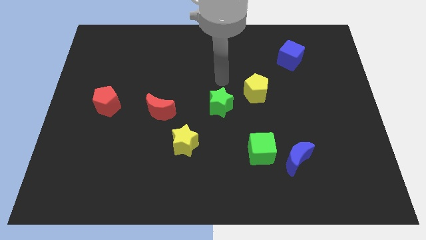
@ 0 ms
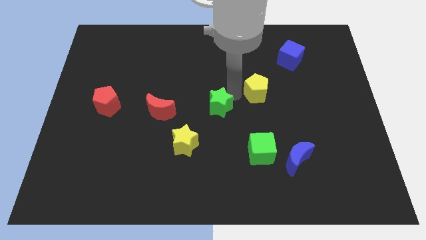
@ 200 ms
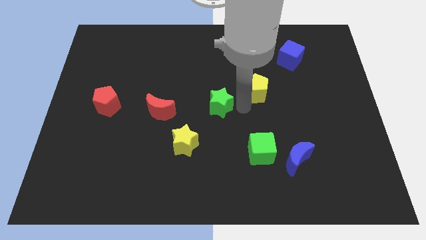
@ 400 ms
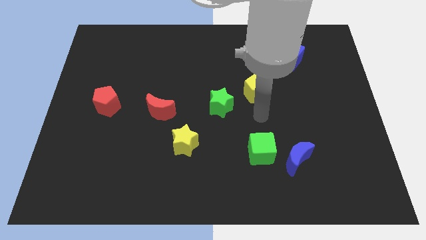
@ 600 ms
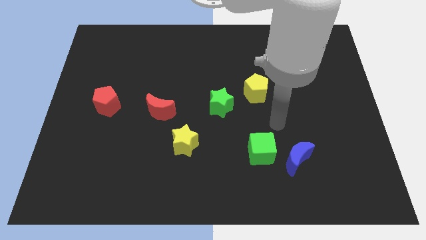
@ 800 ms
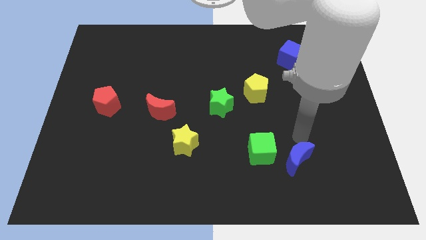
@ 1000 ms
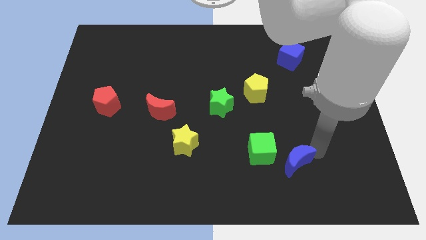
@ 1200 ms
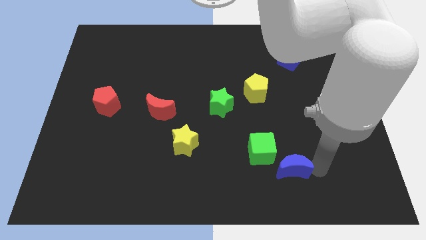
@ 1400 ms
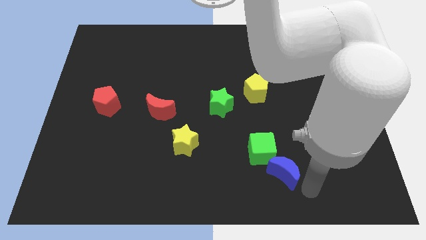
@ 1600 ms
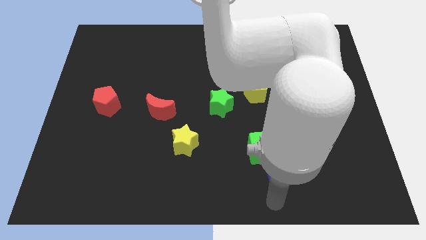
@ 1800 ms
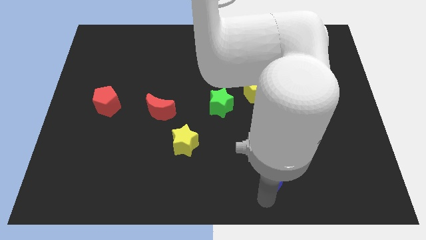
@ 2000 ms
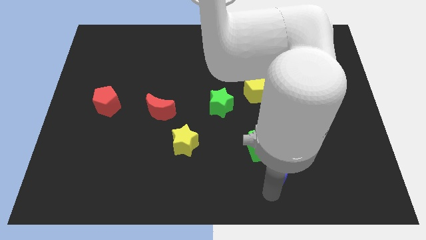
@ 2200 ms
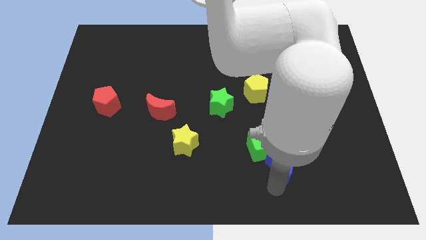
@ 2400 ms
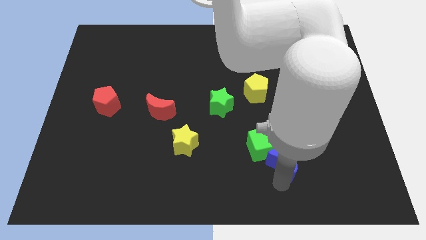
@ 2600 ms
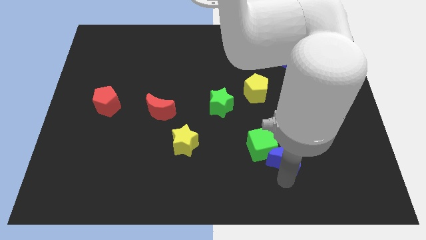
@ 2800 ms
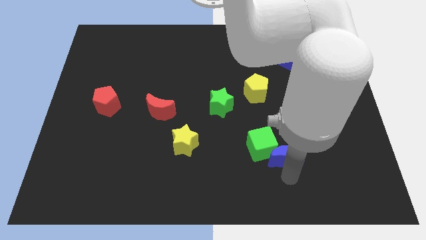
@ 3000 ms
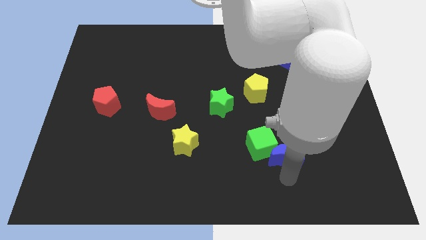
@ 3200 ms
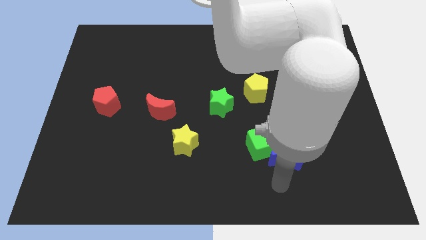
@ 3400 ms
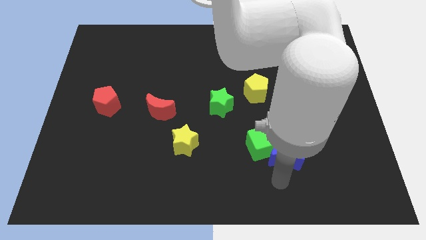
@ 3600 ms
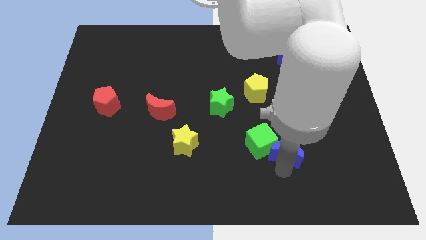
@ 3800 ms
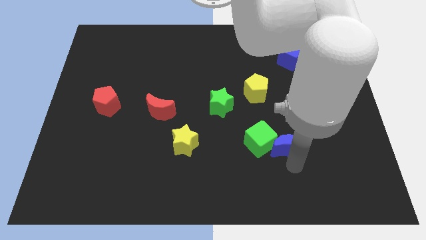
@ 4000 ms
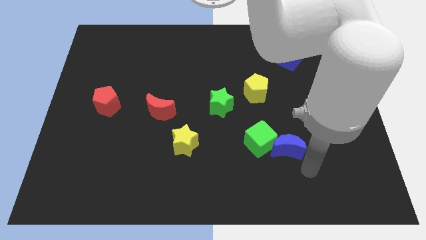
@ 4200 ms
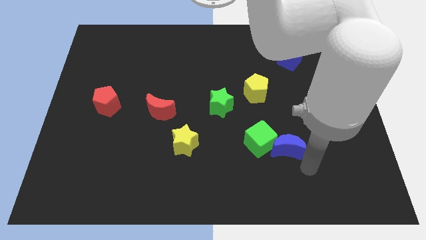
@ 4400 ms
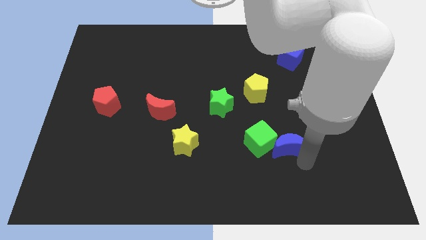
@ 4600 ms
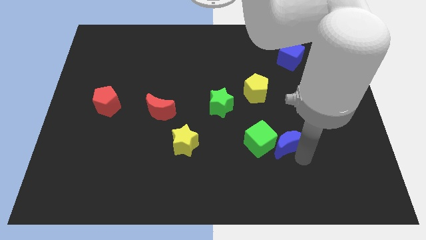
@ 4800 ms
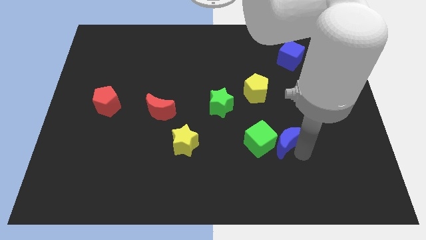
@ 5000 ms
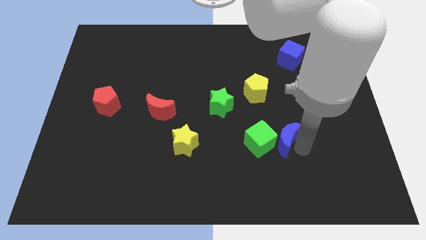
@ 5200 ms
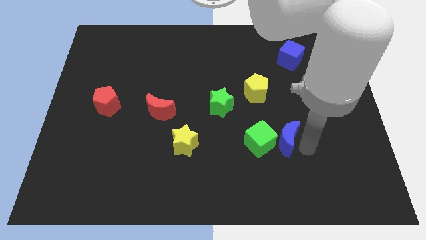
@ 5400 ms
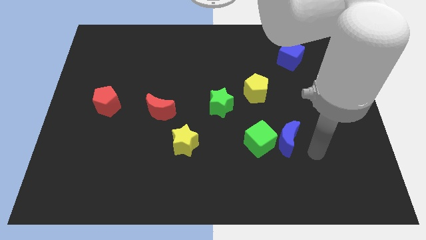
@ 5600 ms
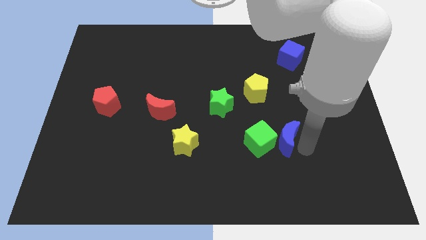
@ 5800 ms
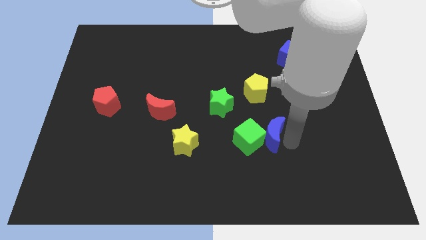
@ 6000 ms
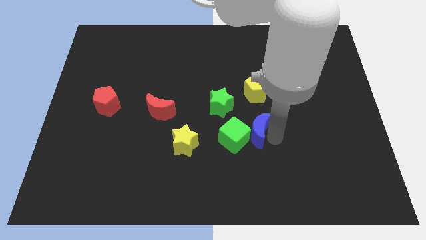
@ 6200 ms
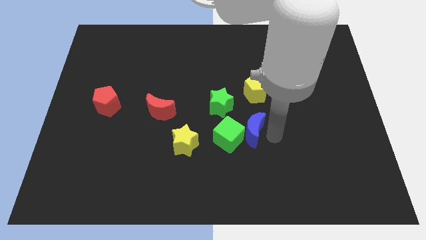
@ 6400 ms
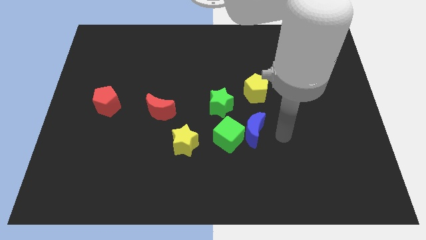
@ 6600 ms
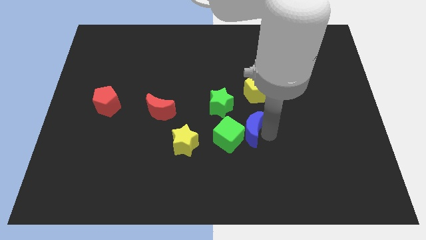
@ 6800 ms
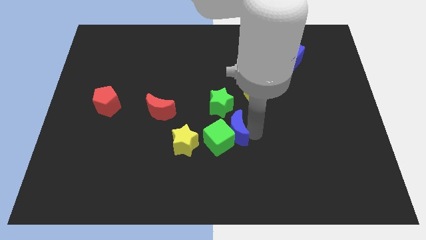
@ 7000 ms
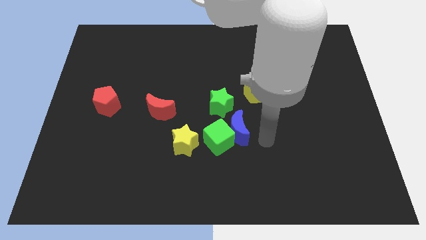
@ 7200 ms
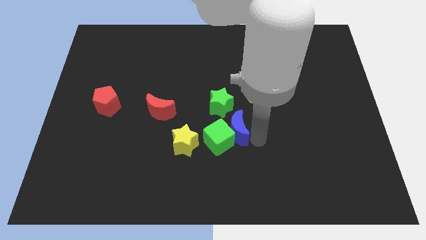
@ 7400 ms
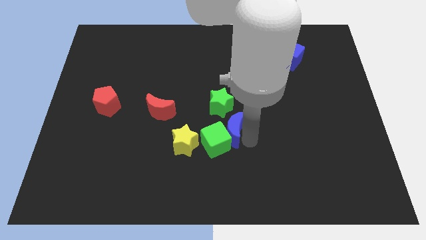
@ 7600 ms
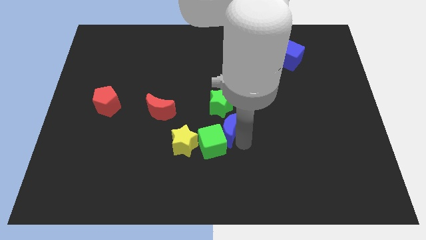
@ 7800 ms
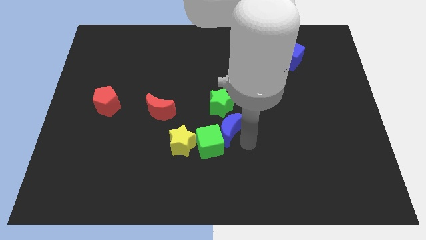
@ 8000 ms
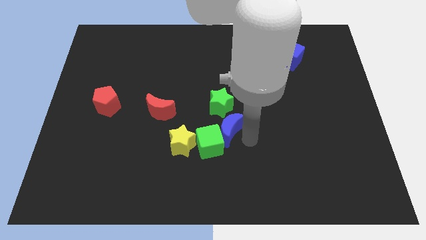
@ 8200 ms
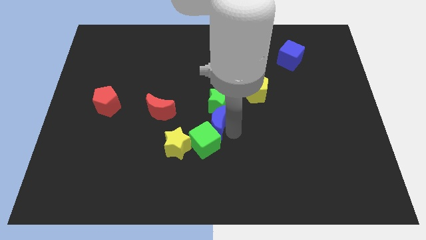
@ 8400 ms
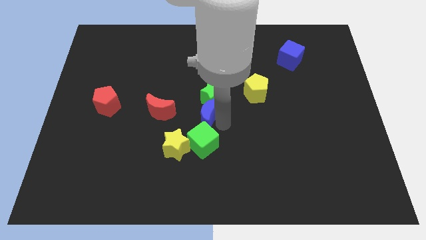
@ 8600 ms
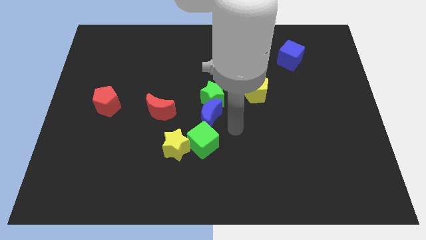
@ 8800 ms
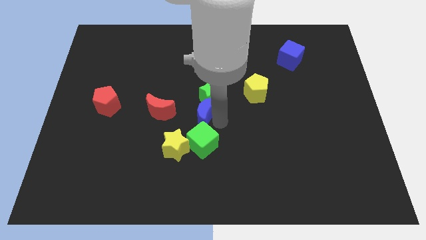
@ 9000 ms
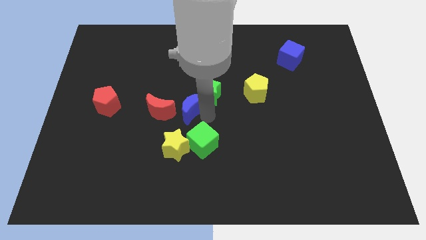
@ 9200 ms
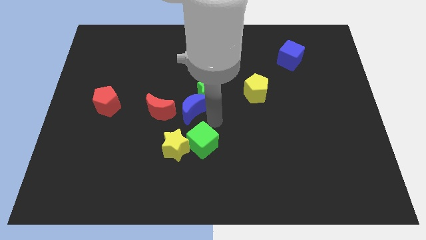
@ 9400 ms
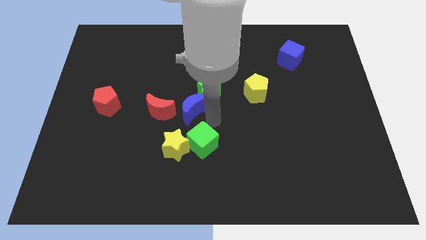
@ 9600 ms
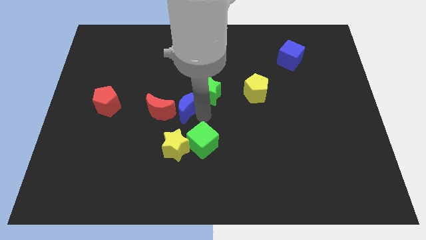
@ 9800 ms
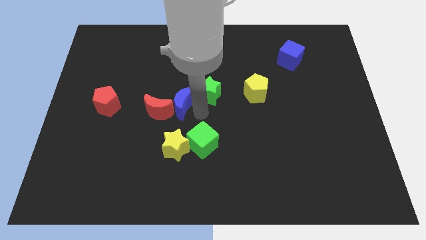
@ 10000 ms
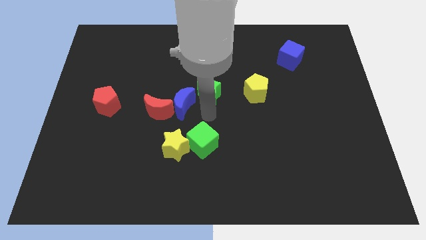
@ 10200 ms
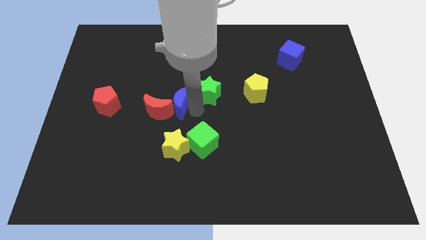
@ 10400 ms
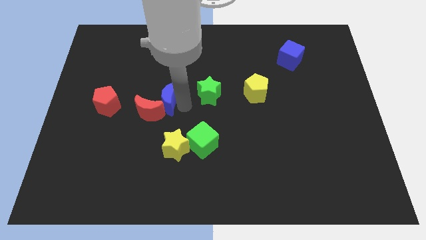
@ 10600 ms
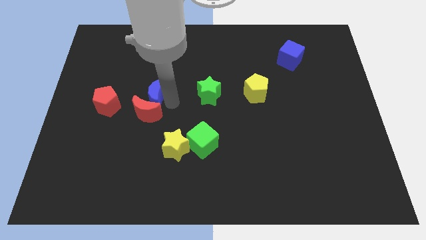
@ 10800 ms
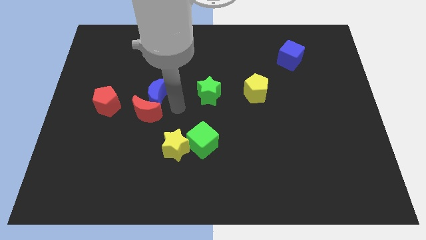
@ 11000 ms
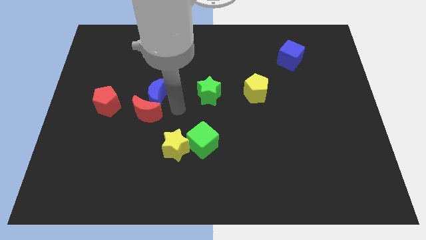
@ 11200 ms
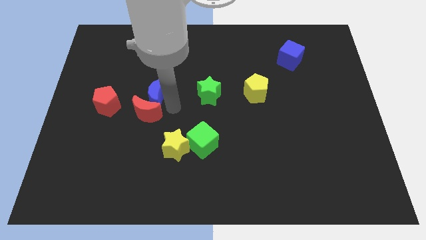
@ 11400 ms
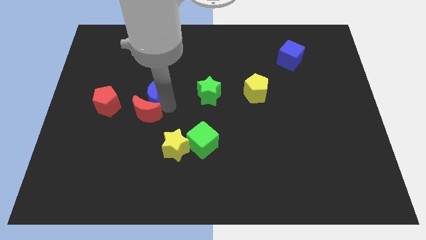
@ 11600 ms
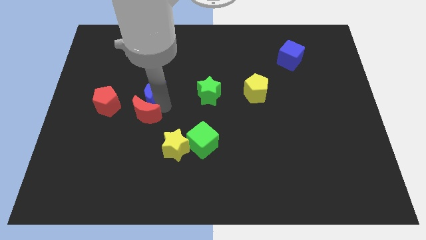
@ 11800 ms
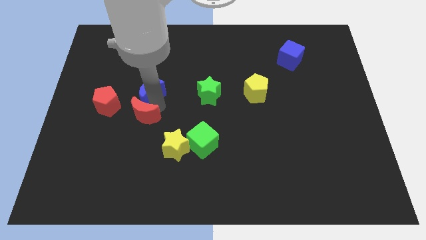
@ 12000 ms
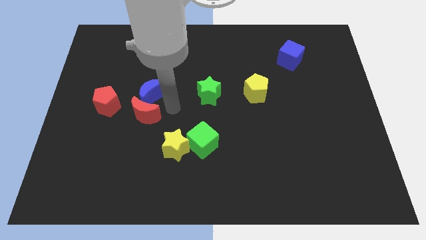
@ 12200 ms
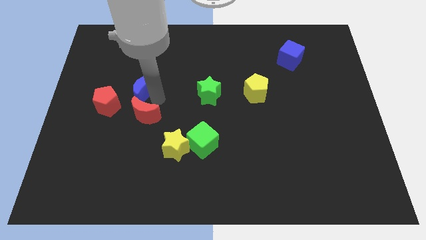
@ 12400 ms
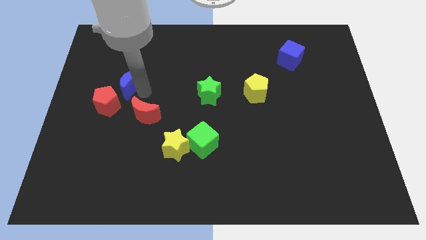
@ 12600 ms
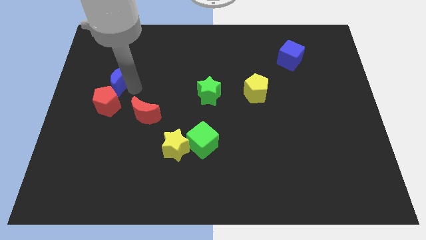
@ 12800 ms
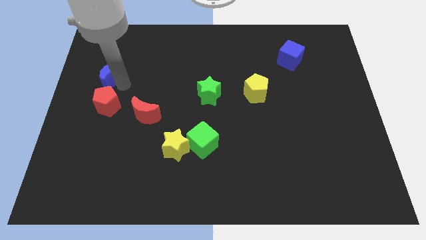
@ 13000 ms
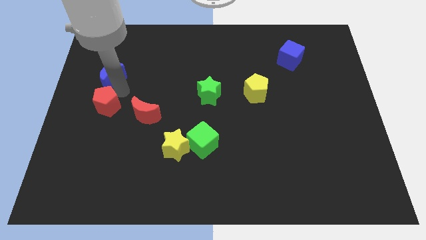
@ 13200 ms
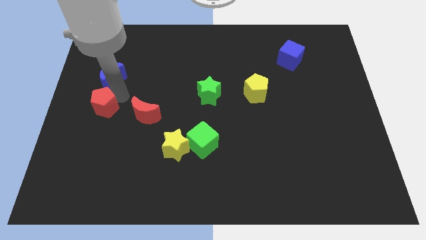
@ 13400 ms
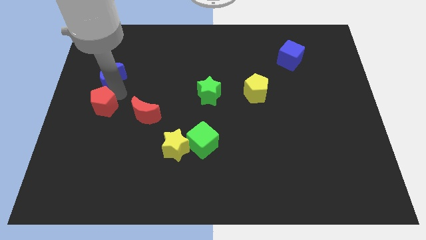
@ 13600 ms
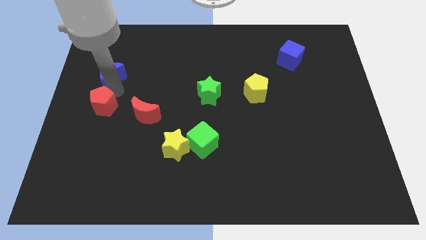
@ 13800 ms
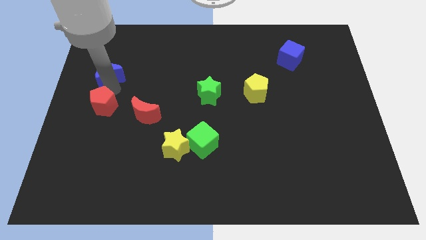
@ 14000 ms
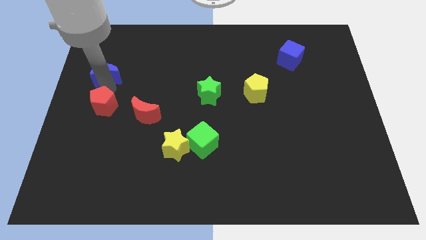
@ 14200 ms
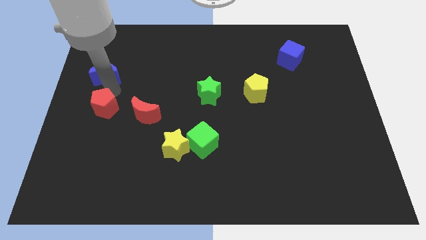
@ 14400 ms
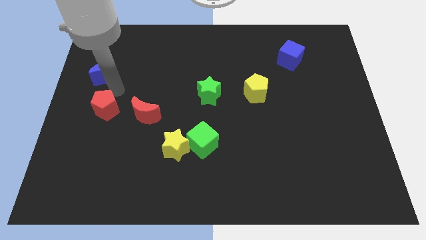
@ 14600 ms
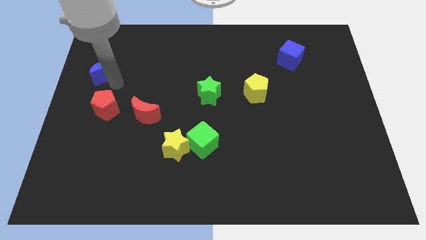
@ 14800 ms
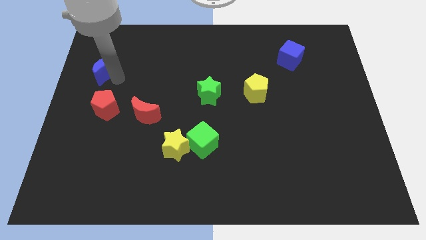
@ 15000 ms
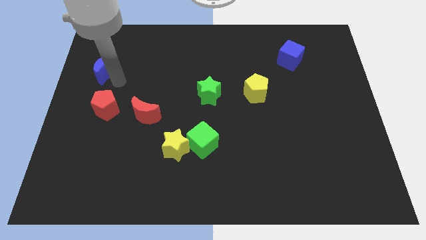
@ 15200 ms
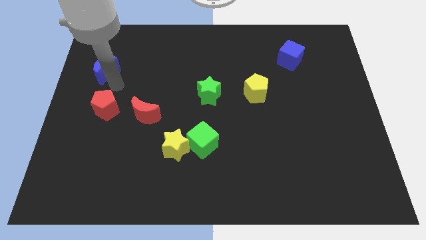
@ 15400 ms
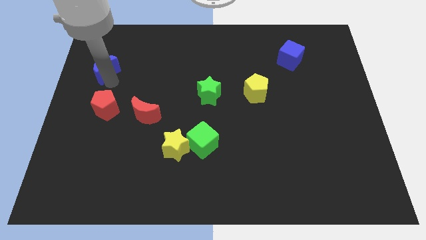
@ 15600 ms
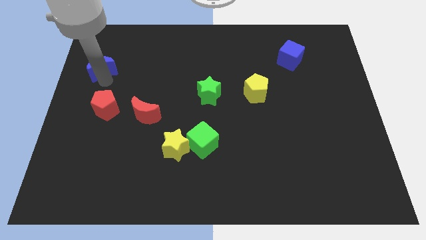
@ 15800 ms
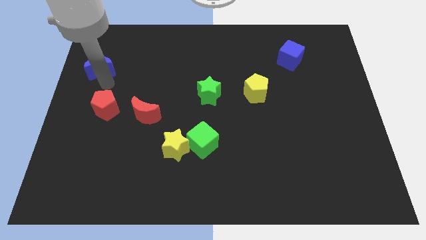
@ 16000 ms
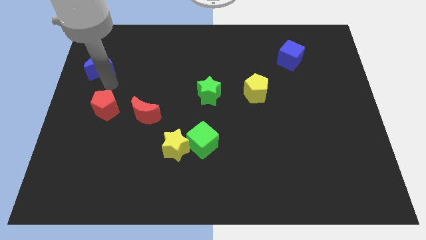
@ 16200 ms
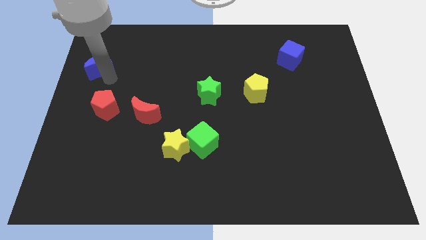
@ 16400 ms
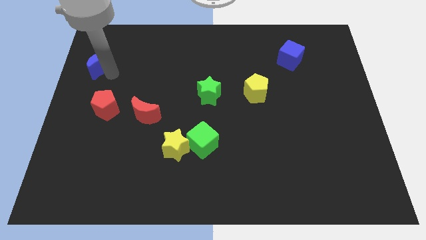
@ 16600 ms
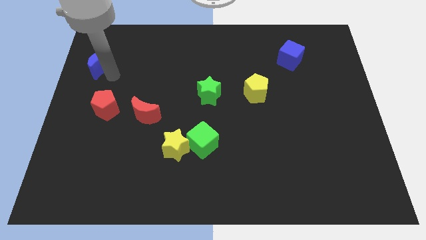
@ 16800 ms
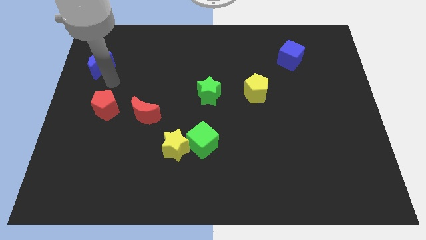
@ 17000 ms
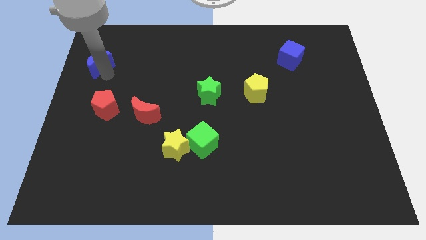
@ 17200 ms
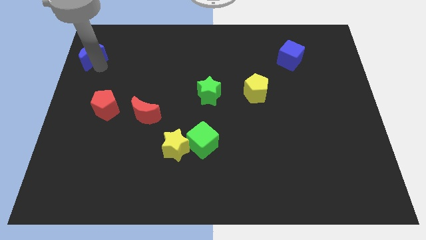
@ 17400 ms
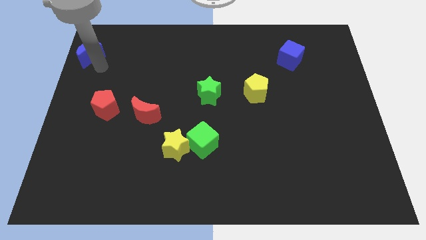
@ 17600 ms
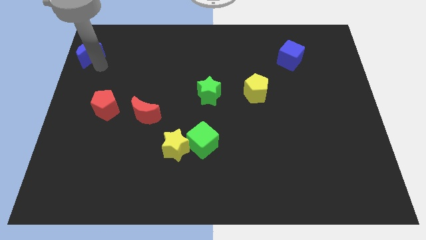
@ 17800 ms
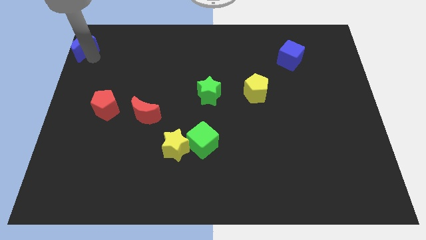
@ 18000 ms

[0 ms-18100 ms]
slide the blue moon to the top left corner
